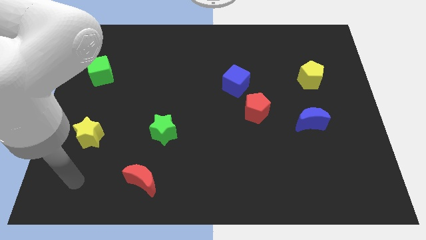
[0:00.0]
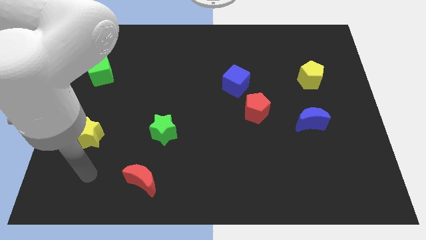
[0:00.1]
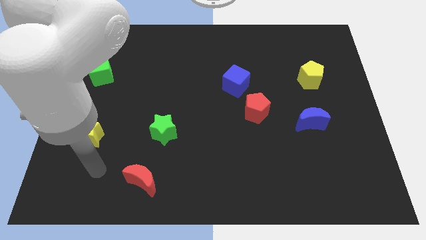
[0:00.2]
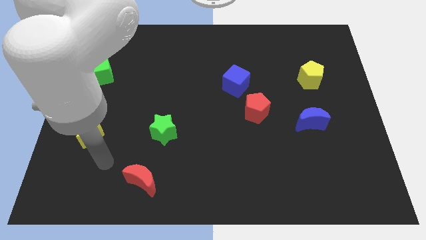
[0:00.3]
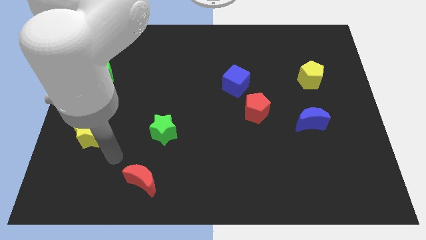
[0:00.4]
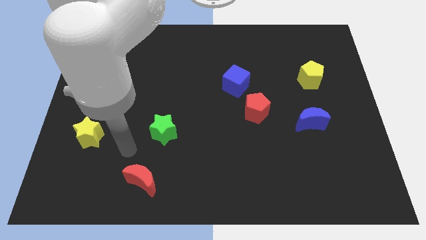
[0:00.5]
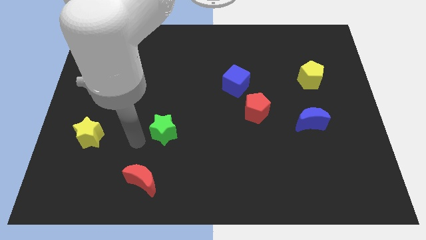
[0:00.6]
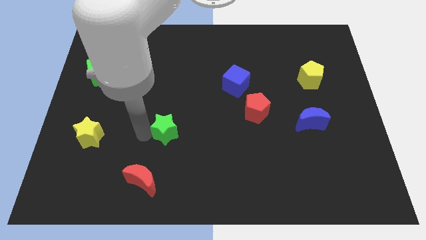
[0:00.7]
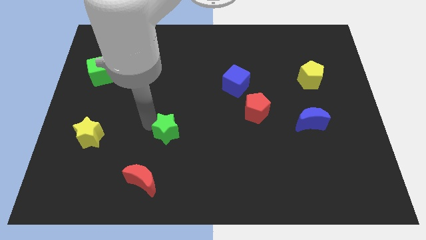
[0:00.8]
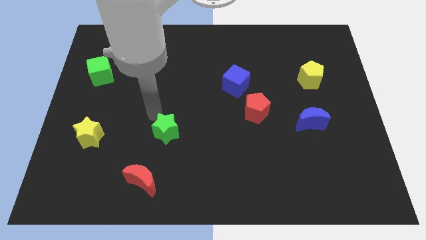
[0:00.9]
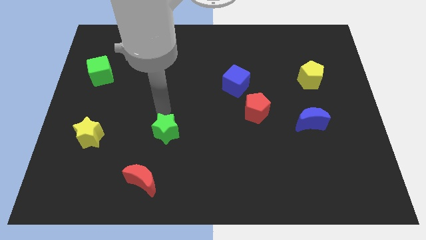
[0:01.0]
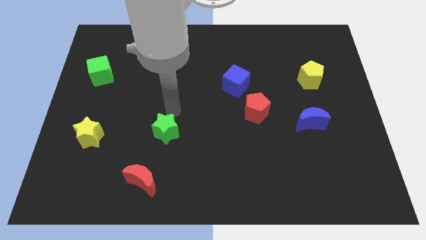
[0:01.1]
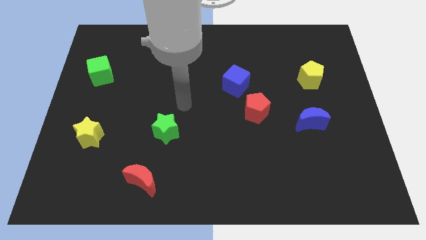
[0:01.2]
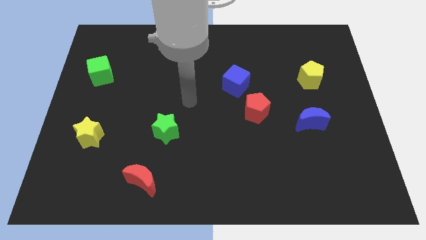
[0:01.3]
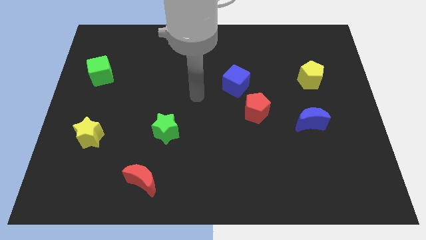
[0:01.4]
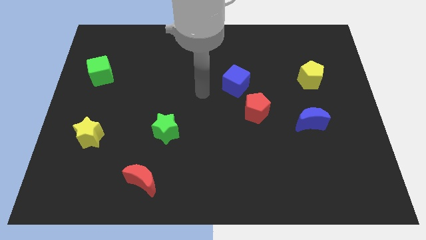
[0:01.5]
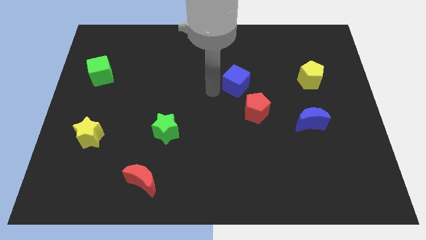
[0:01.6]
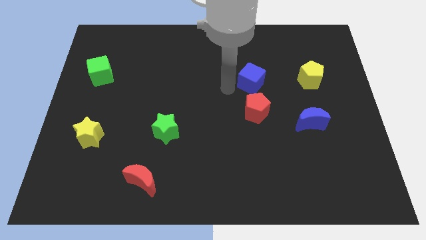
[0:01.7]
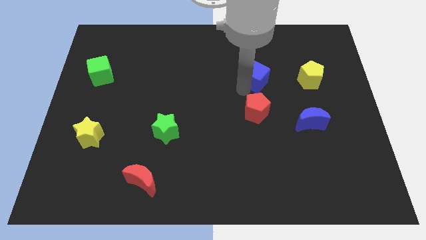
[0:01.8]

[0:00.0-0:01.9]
pull the red pentagon apart from the blue cube

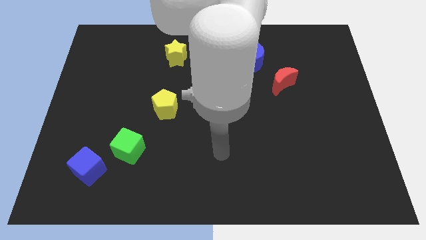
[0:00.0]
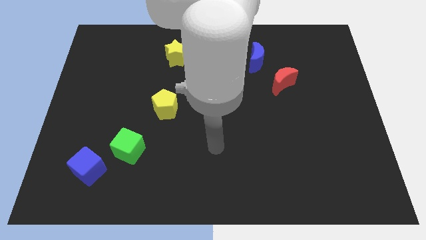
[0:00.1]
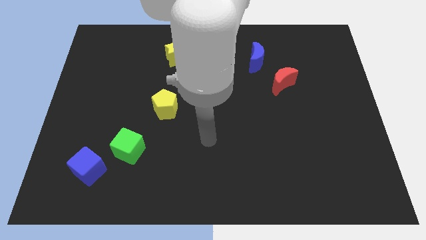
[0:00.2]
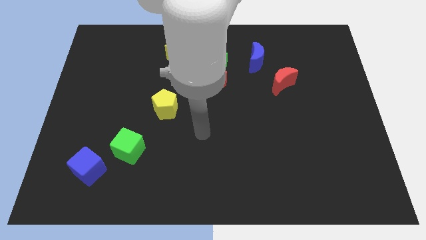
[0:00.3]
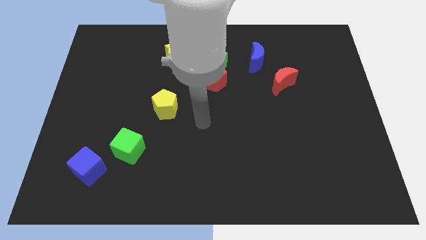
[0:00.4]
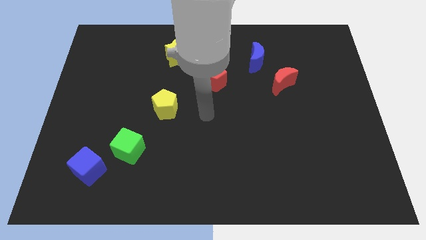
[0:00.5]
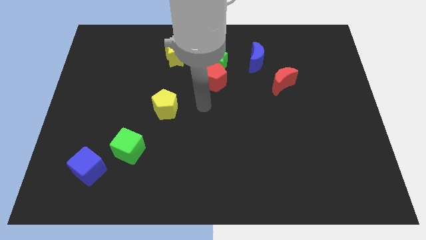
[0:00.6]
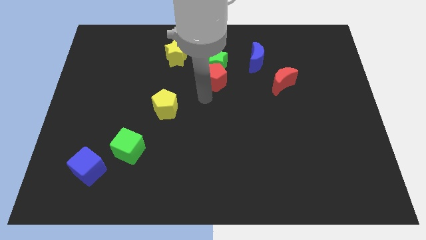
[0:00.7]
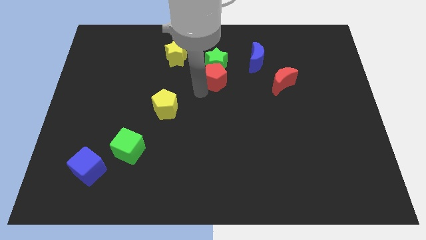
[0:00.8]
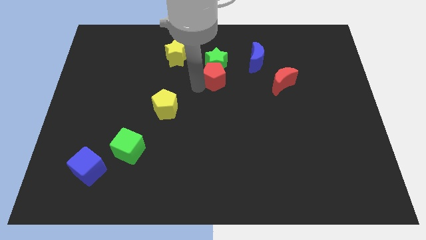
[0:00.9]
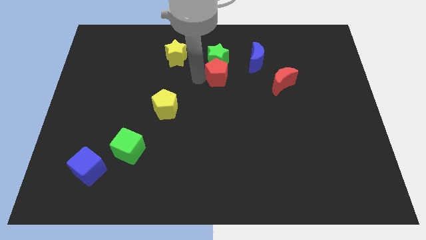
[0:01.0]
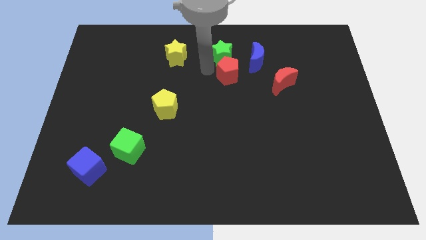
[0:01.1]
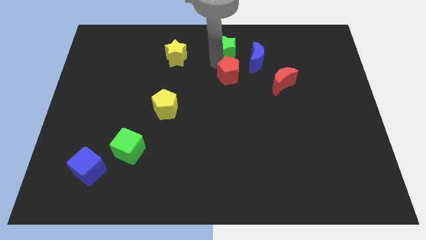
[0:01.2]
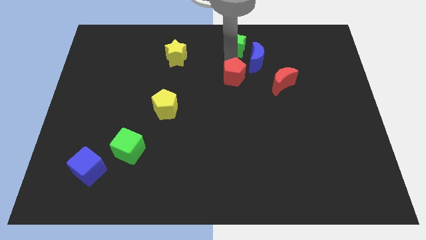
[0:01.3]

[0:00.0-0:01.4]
separate the red pentagon from the green star

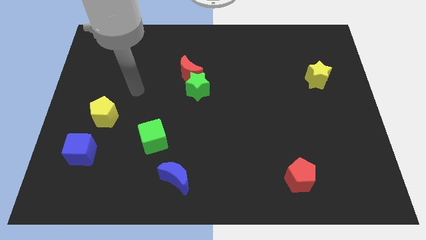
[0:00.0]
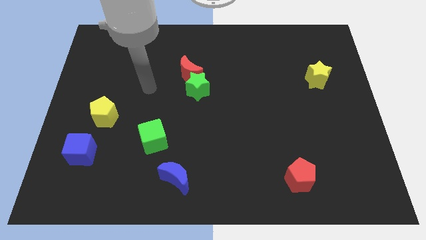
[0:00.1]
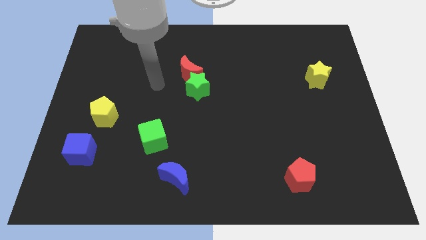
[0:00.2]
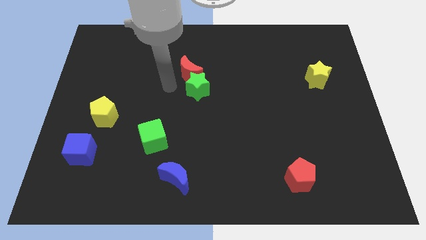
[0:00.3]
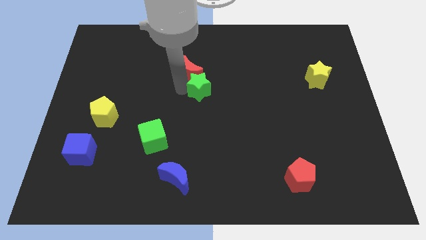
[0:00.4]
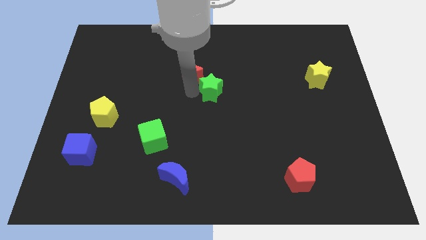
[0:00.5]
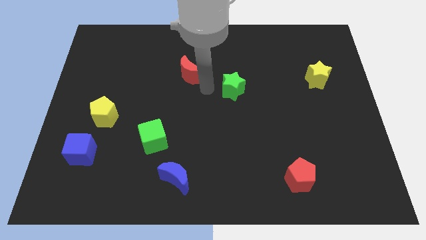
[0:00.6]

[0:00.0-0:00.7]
move the red moon away from the green star

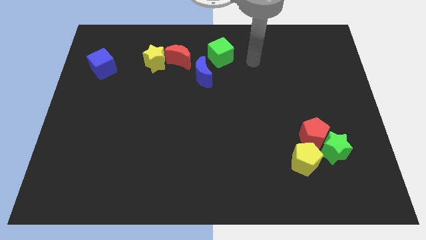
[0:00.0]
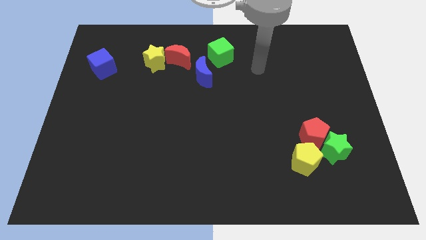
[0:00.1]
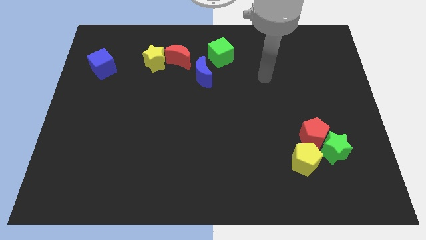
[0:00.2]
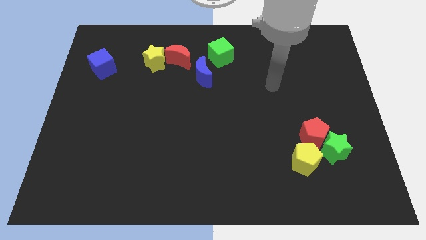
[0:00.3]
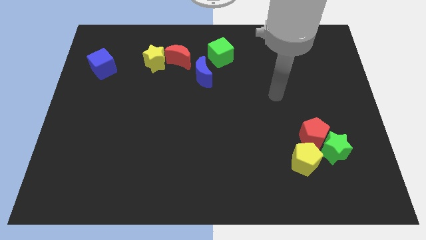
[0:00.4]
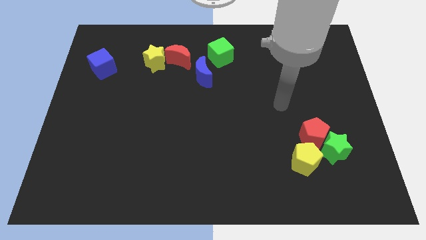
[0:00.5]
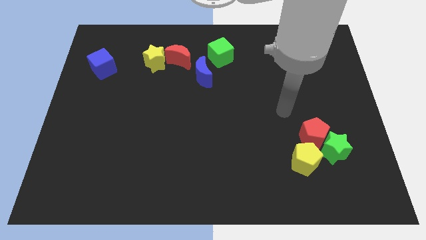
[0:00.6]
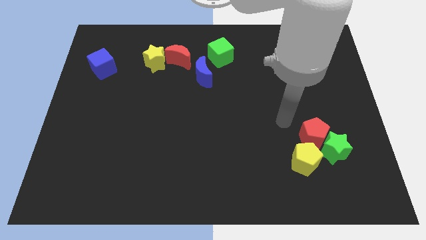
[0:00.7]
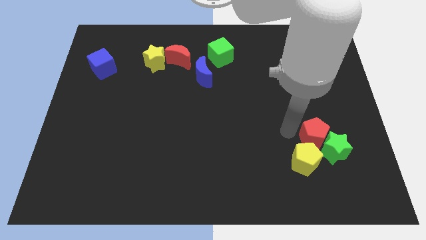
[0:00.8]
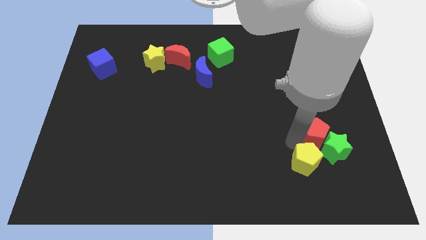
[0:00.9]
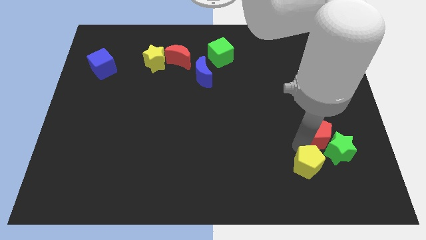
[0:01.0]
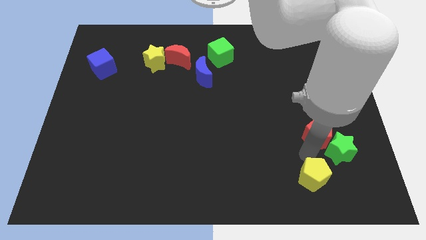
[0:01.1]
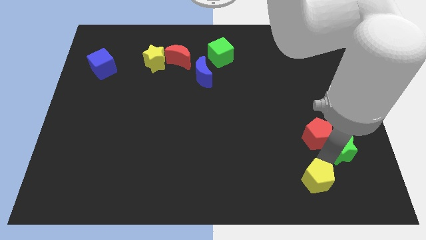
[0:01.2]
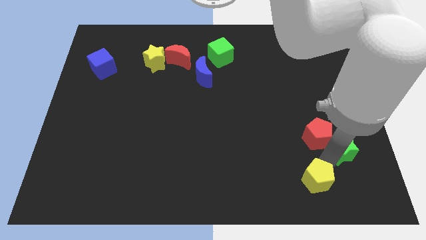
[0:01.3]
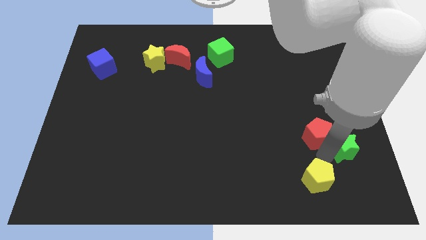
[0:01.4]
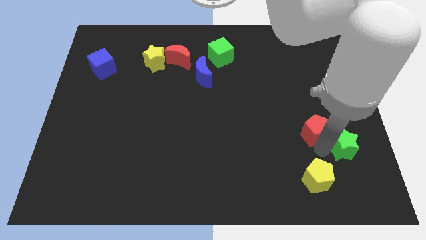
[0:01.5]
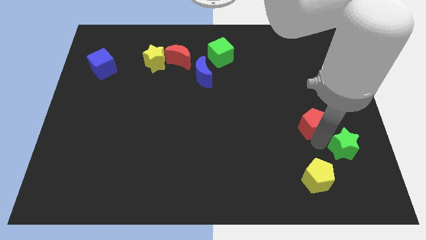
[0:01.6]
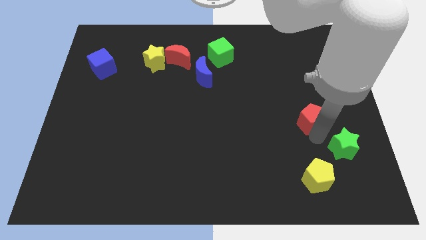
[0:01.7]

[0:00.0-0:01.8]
move the red pentagon away from the green star and yellow pentagon

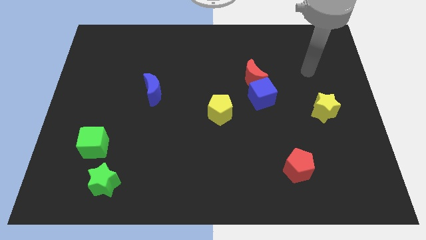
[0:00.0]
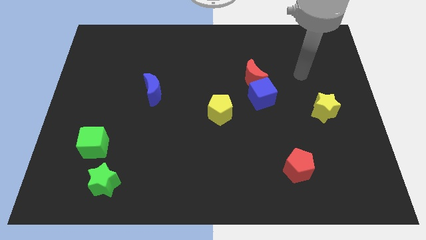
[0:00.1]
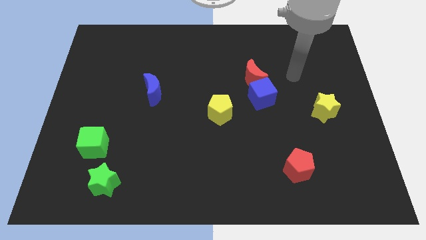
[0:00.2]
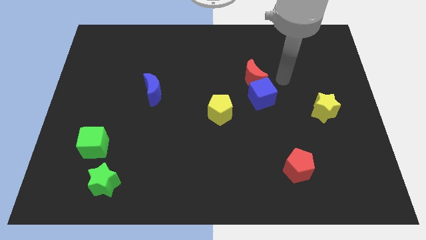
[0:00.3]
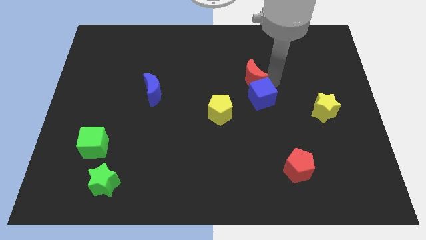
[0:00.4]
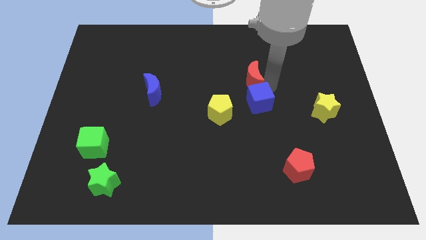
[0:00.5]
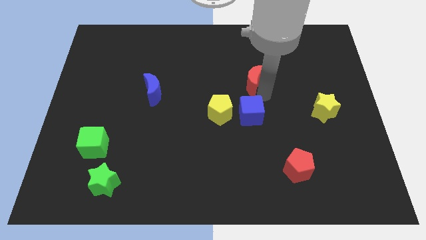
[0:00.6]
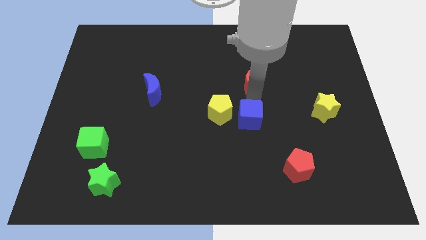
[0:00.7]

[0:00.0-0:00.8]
separate the red moon from the blue cube

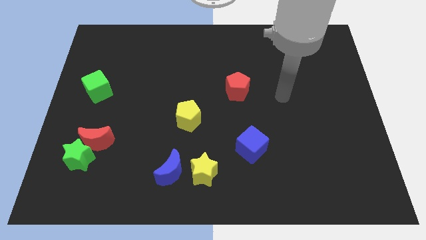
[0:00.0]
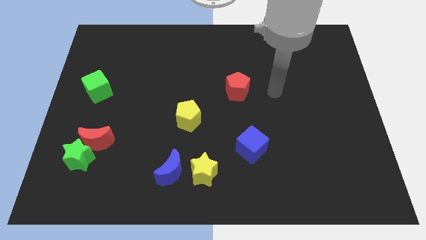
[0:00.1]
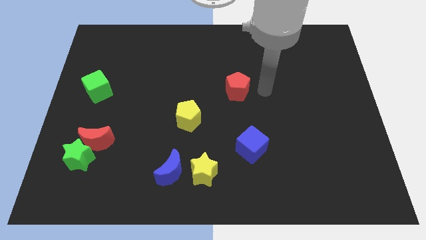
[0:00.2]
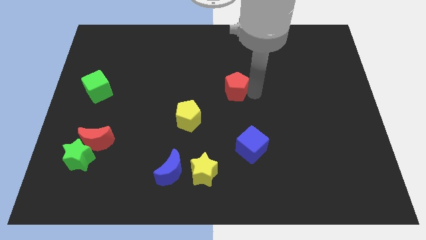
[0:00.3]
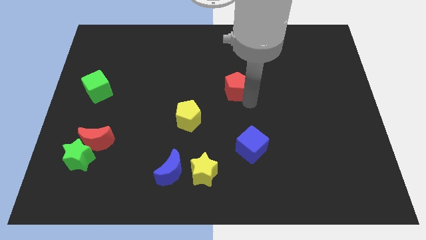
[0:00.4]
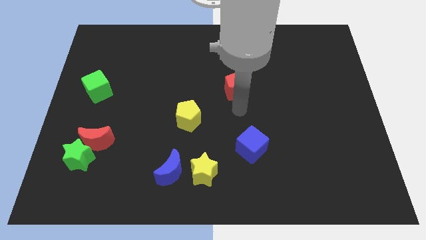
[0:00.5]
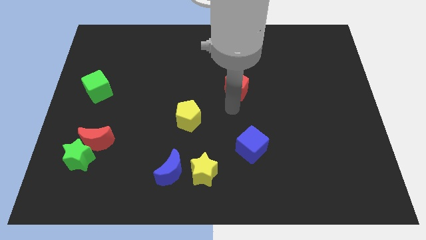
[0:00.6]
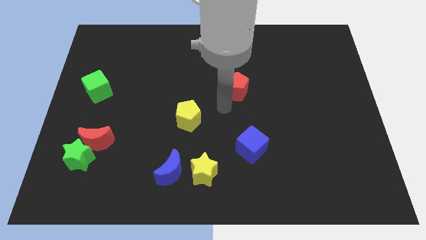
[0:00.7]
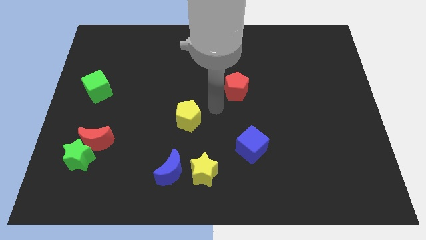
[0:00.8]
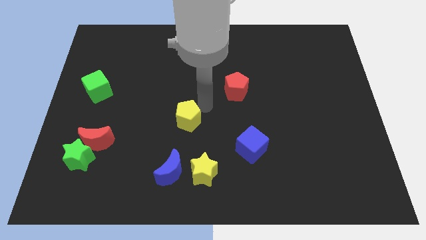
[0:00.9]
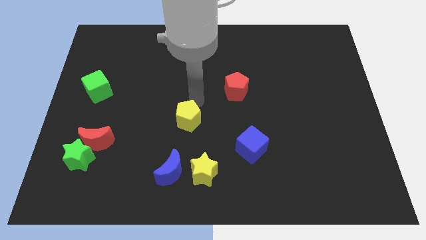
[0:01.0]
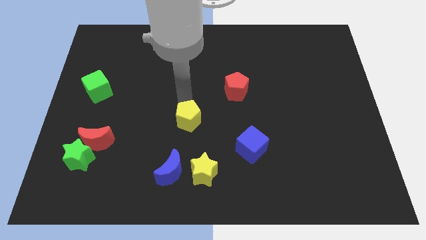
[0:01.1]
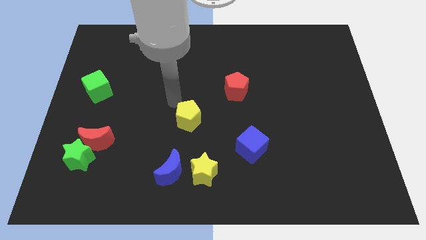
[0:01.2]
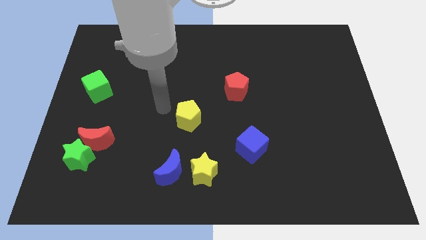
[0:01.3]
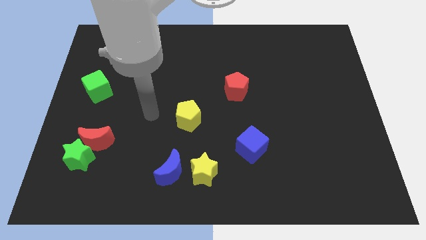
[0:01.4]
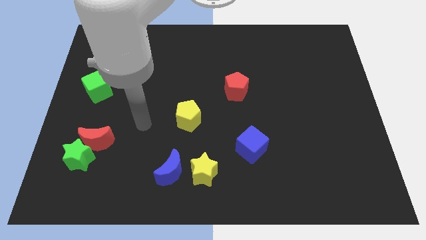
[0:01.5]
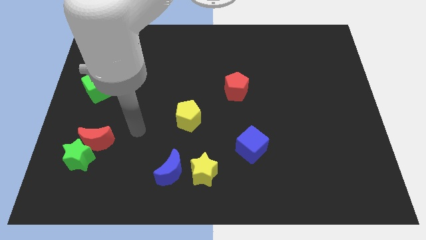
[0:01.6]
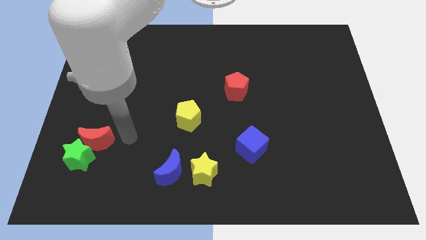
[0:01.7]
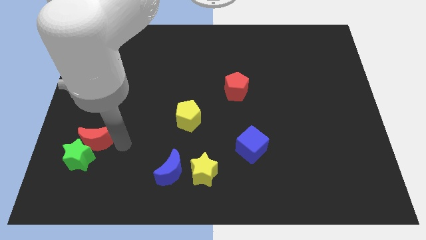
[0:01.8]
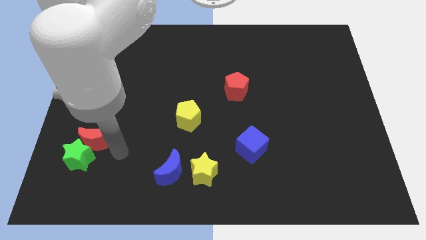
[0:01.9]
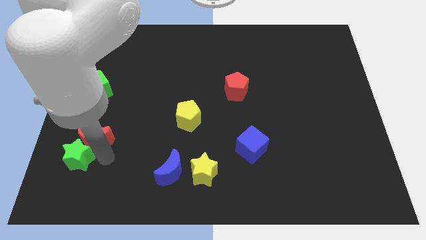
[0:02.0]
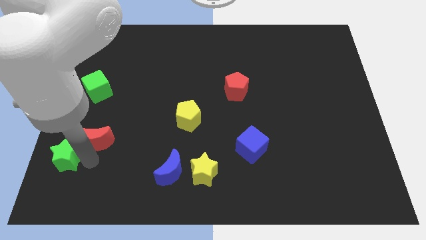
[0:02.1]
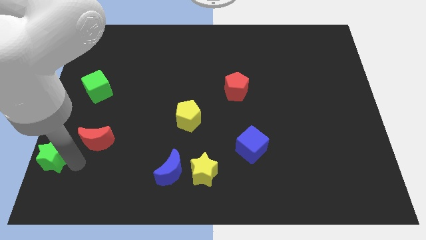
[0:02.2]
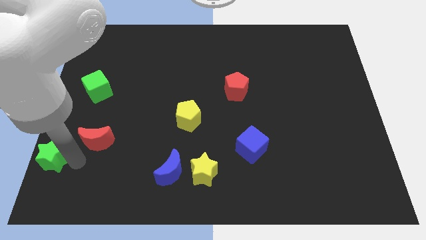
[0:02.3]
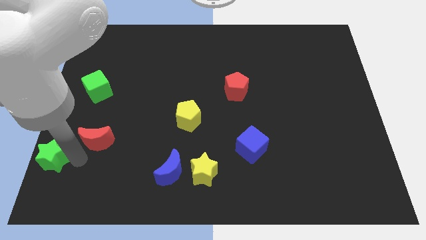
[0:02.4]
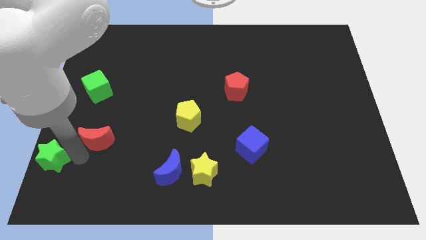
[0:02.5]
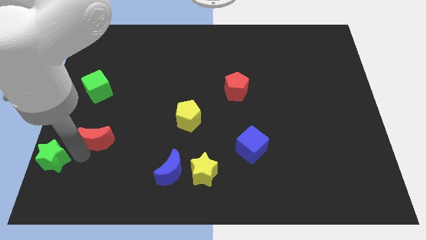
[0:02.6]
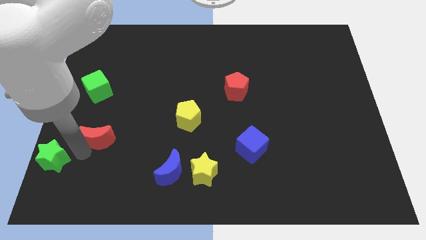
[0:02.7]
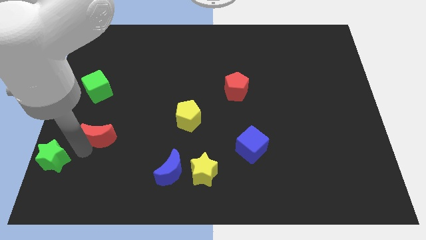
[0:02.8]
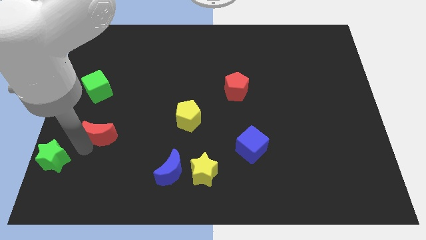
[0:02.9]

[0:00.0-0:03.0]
pull the red moon apart from the green star
